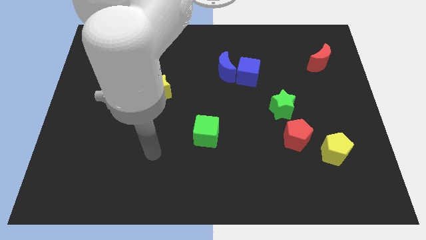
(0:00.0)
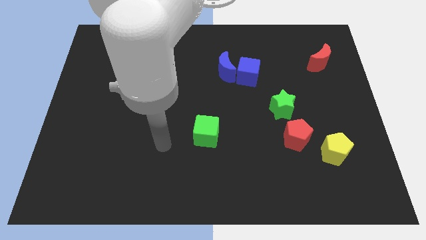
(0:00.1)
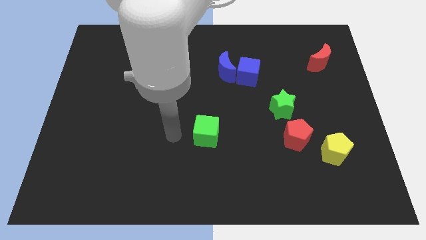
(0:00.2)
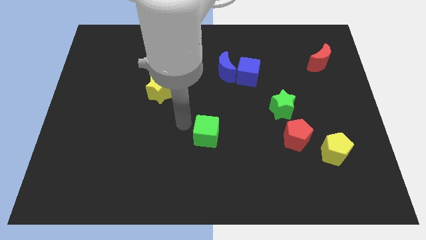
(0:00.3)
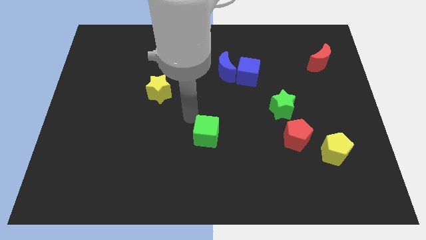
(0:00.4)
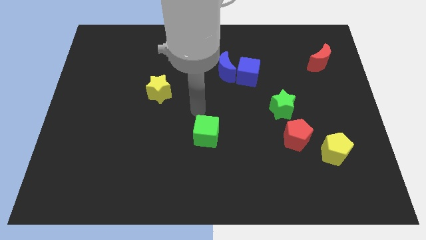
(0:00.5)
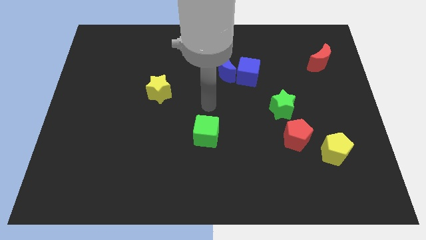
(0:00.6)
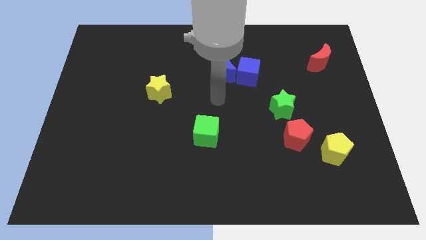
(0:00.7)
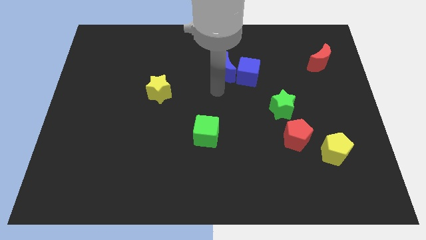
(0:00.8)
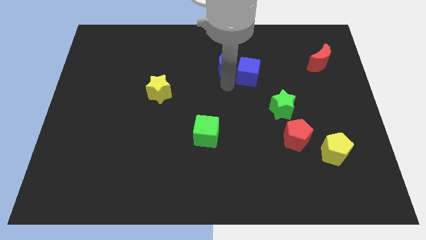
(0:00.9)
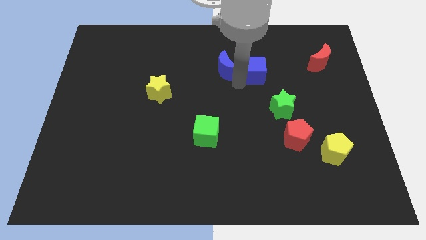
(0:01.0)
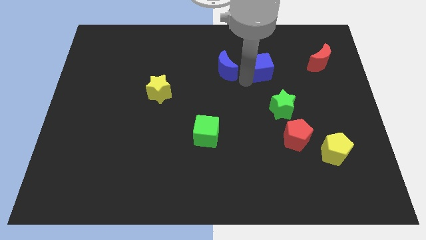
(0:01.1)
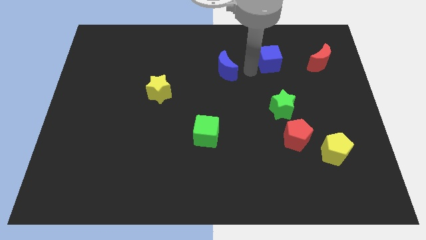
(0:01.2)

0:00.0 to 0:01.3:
pull the blue moon apart from the blue cube

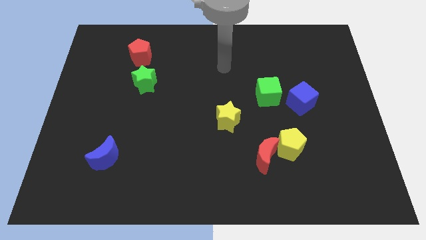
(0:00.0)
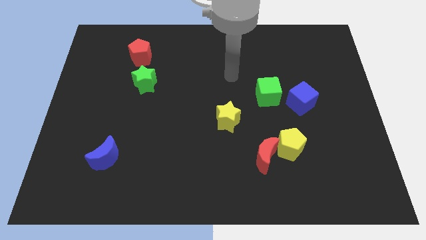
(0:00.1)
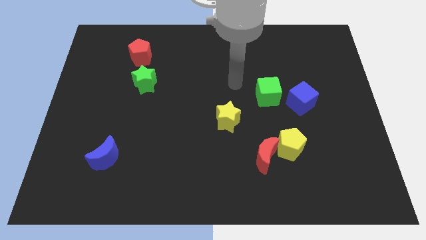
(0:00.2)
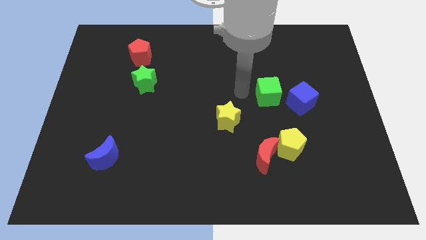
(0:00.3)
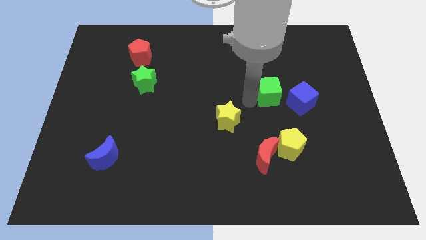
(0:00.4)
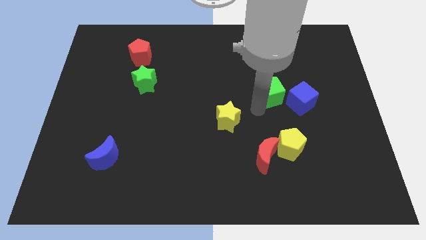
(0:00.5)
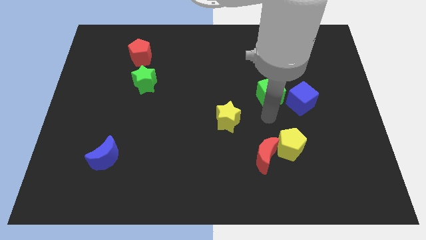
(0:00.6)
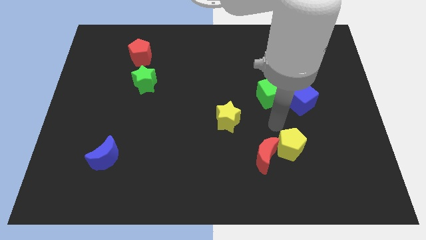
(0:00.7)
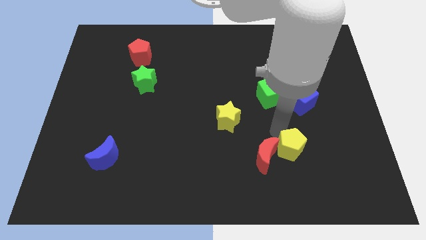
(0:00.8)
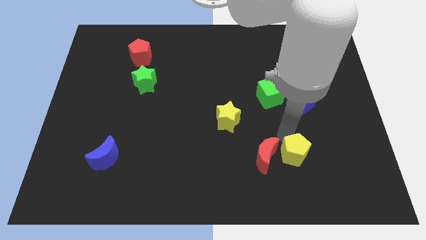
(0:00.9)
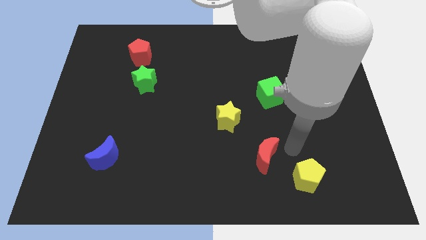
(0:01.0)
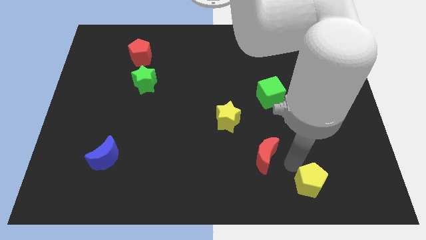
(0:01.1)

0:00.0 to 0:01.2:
separate the red moon from the yellow pentagon

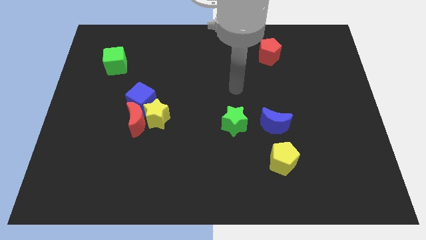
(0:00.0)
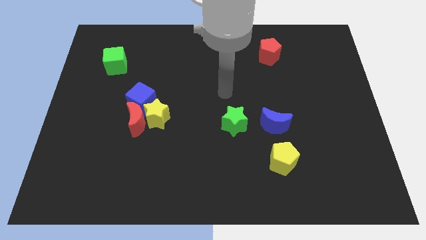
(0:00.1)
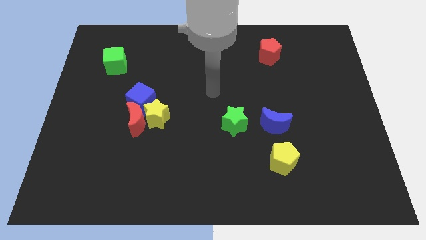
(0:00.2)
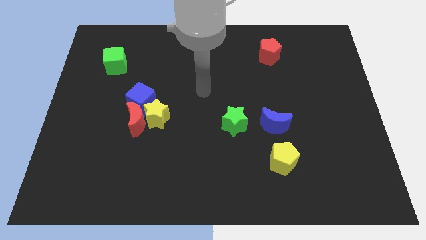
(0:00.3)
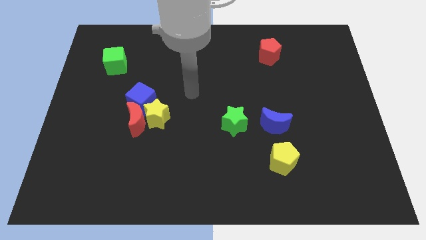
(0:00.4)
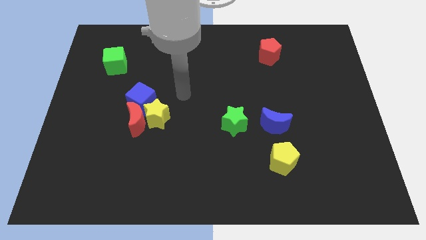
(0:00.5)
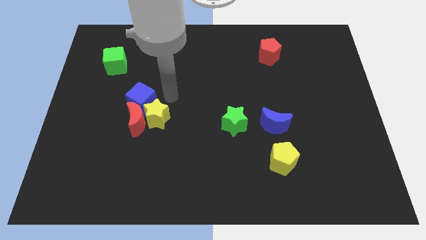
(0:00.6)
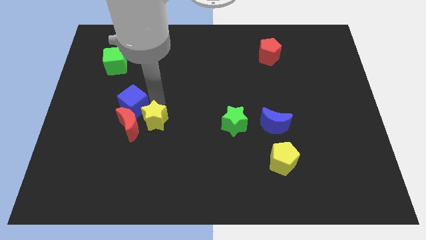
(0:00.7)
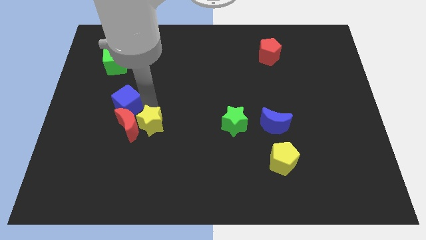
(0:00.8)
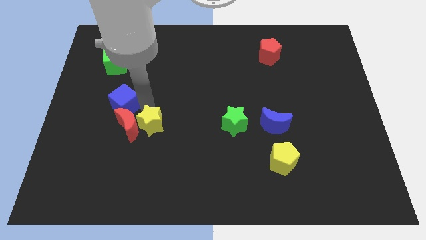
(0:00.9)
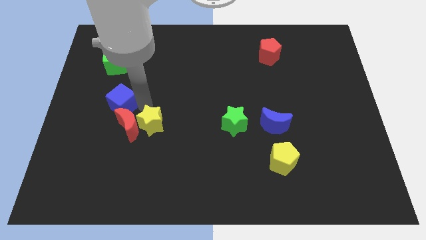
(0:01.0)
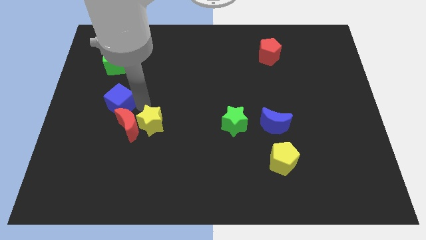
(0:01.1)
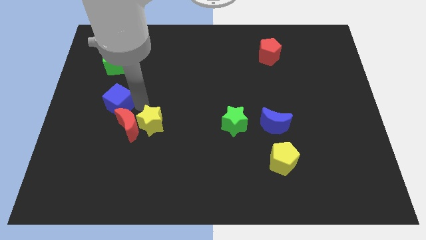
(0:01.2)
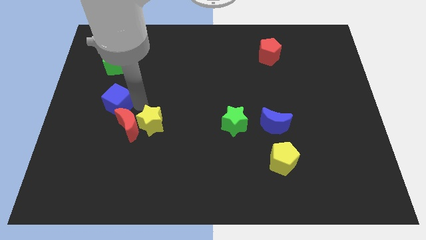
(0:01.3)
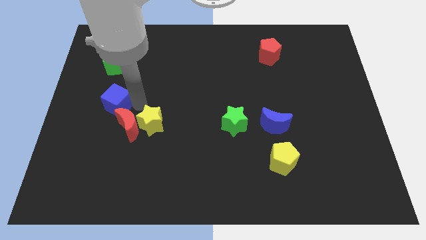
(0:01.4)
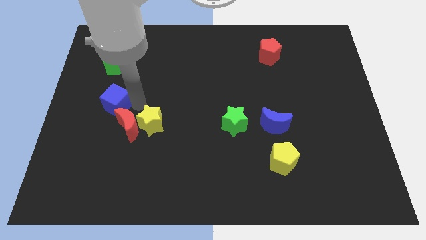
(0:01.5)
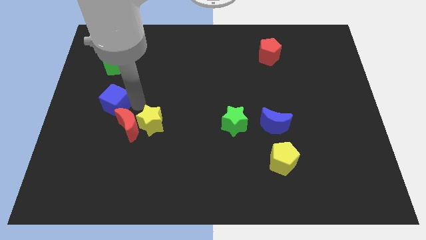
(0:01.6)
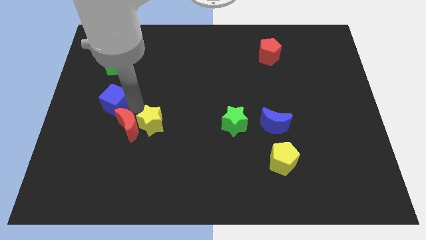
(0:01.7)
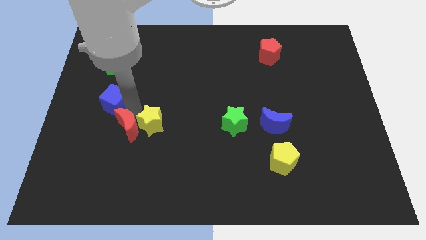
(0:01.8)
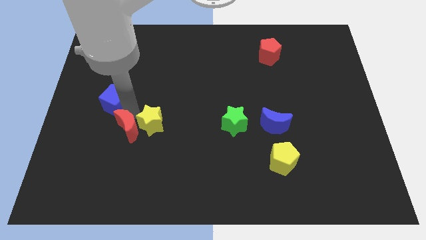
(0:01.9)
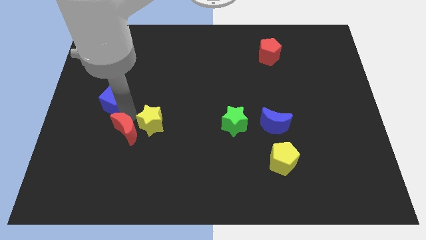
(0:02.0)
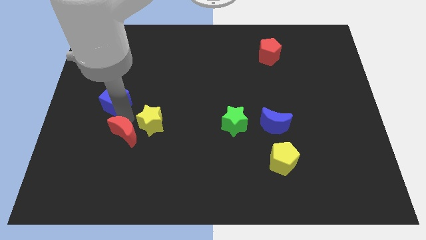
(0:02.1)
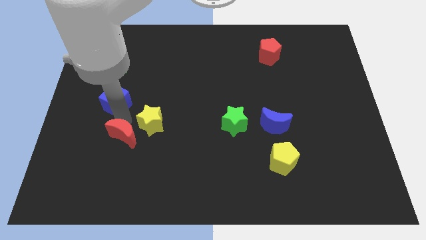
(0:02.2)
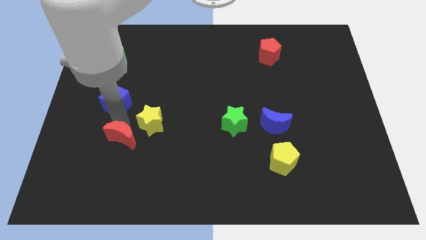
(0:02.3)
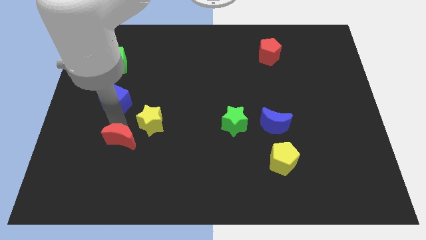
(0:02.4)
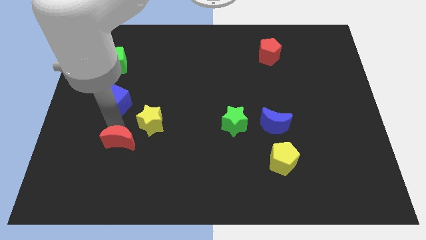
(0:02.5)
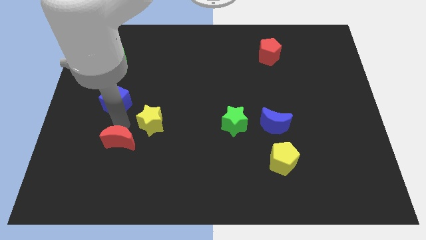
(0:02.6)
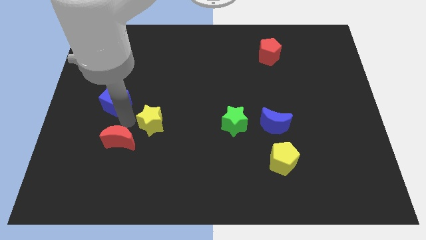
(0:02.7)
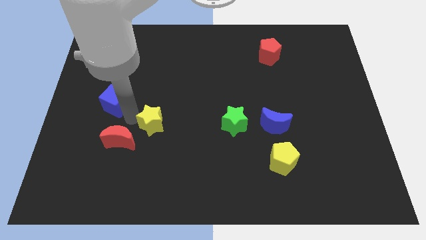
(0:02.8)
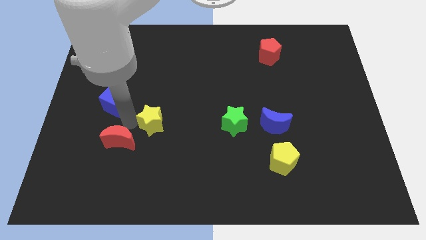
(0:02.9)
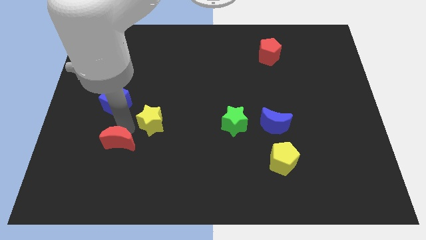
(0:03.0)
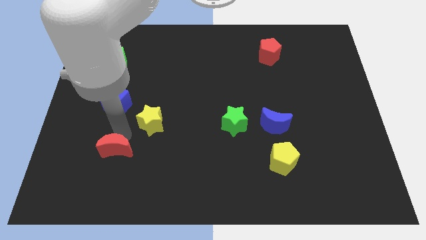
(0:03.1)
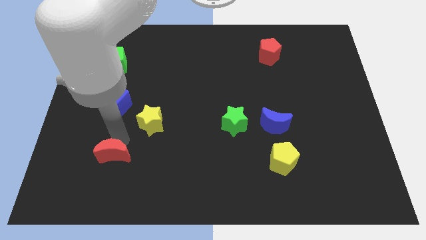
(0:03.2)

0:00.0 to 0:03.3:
pull the red moon apart from the yellow star and blue cube

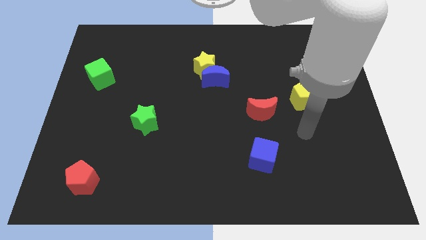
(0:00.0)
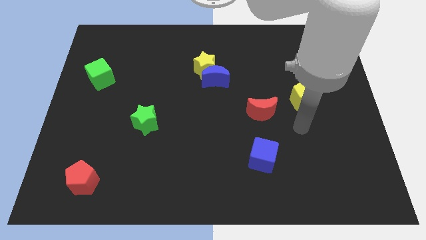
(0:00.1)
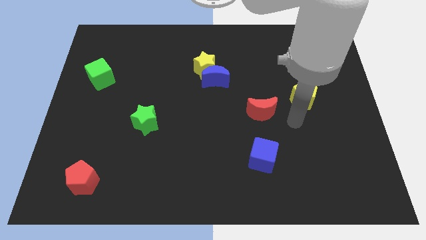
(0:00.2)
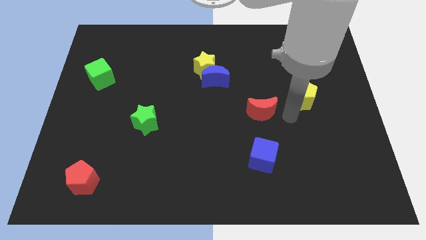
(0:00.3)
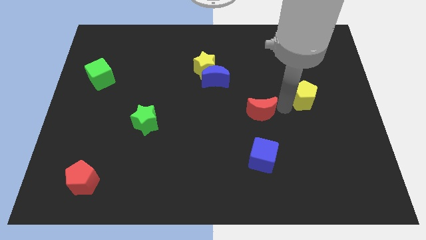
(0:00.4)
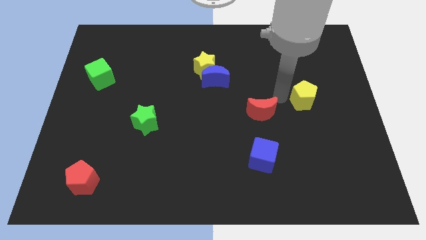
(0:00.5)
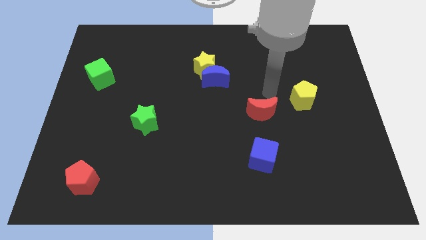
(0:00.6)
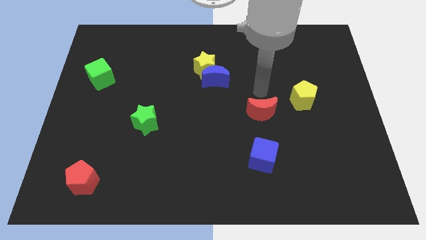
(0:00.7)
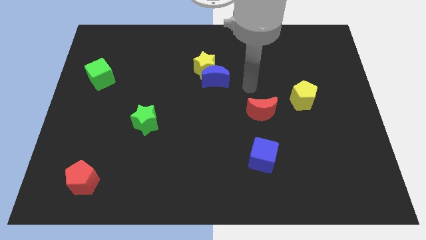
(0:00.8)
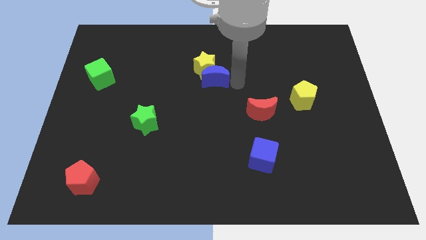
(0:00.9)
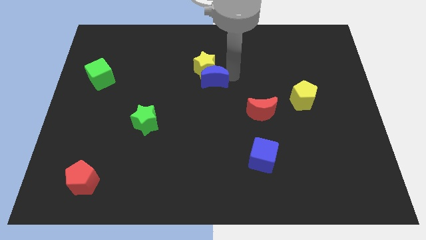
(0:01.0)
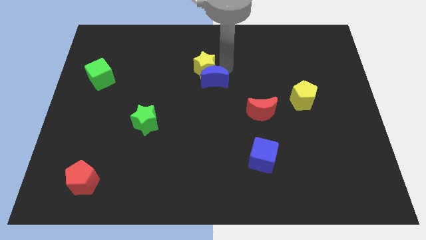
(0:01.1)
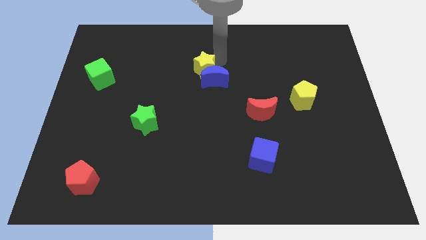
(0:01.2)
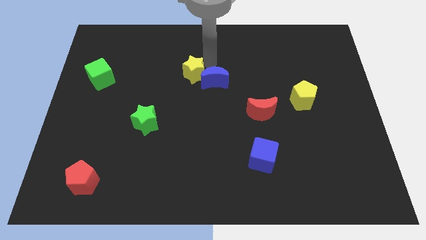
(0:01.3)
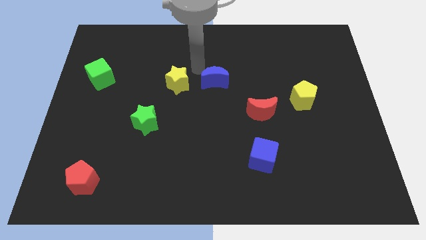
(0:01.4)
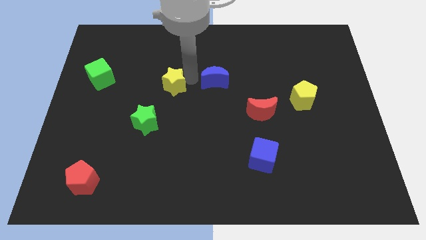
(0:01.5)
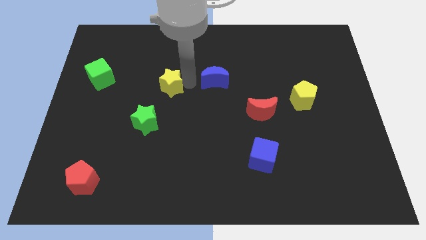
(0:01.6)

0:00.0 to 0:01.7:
separate the blue moon from the yellow star

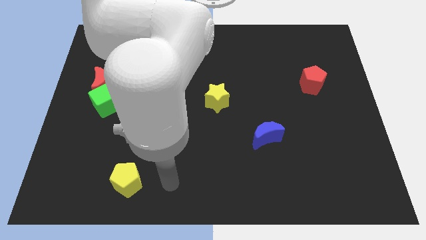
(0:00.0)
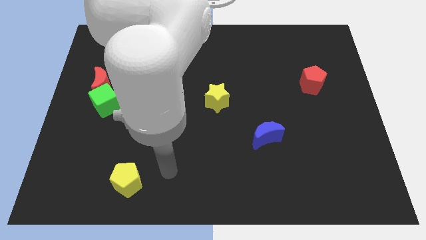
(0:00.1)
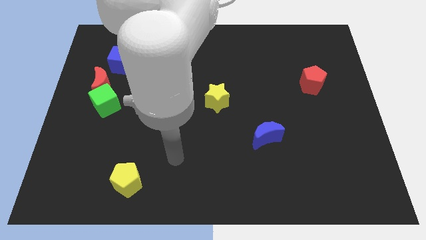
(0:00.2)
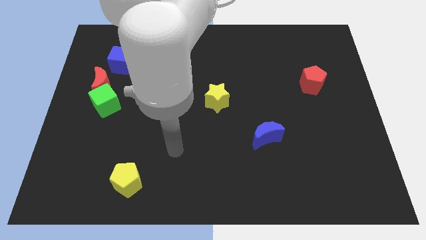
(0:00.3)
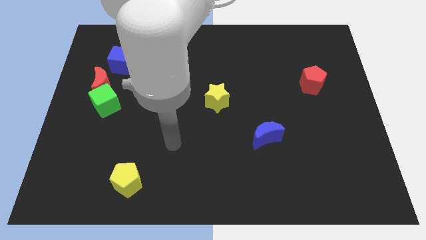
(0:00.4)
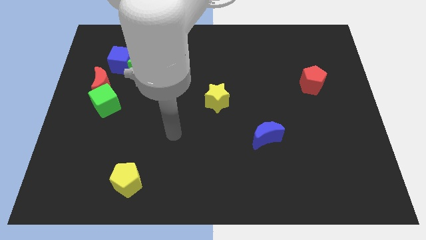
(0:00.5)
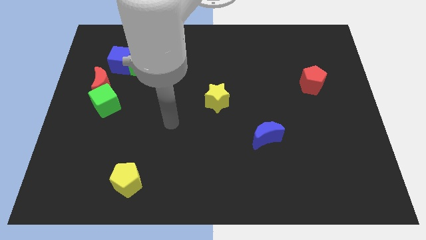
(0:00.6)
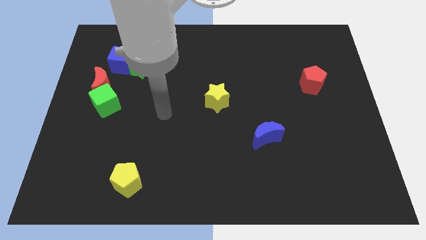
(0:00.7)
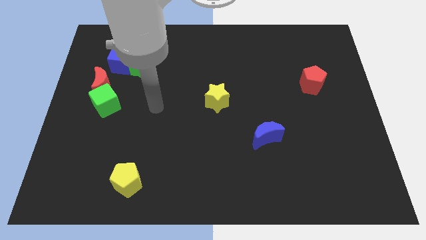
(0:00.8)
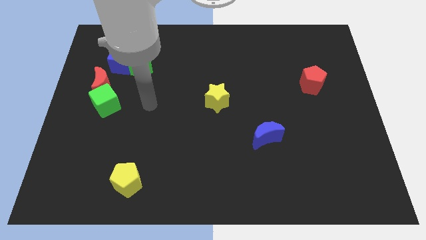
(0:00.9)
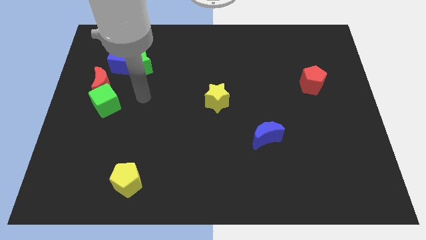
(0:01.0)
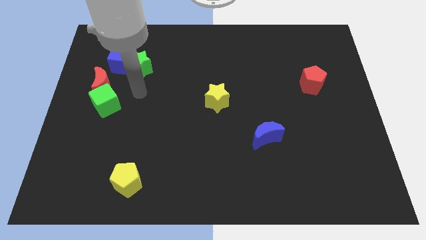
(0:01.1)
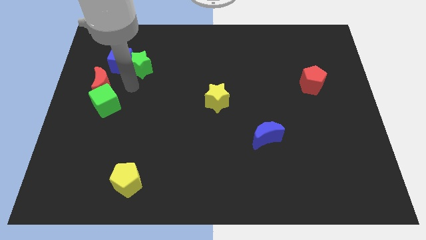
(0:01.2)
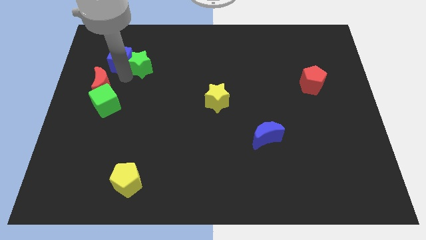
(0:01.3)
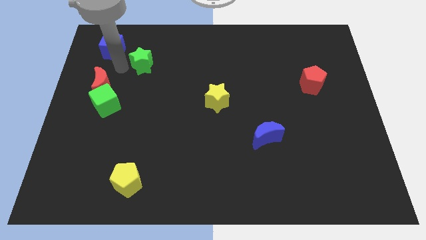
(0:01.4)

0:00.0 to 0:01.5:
move the green star away from the blue cube

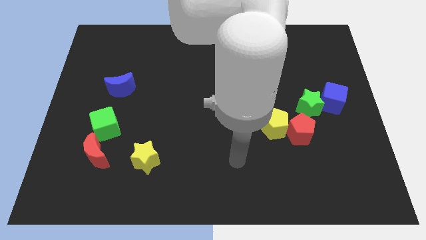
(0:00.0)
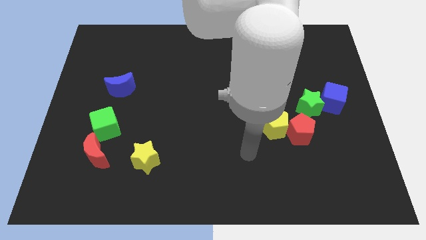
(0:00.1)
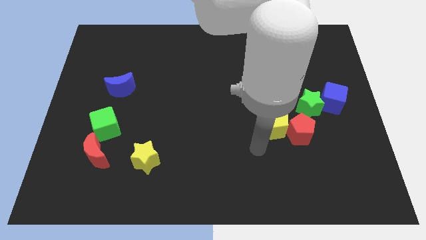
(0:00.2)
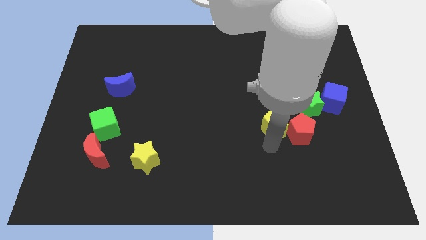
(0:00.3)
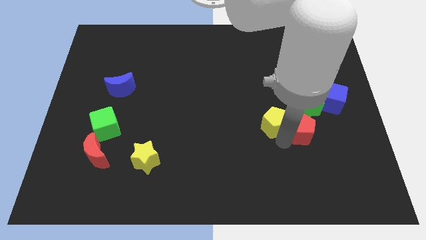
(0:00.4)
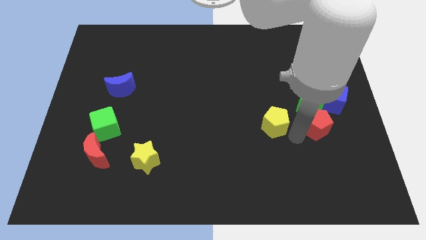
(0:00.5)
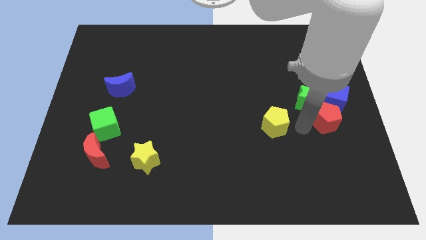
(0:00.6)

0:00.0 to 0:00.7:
pull the yellow pentagon apart from the red pentagon
